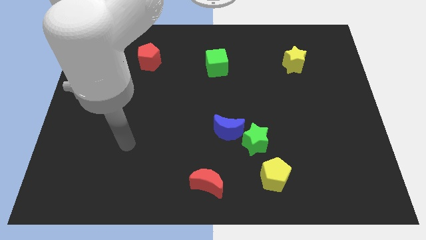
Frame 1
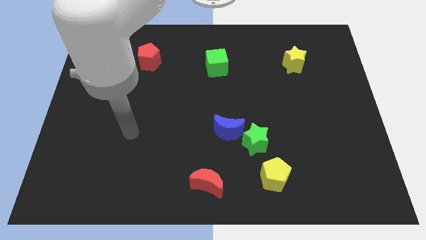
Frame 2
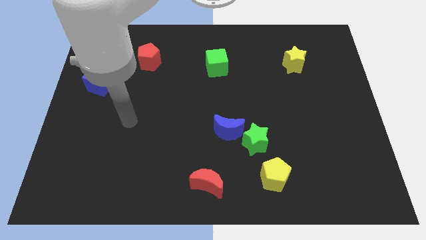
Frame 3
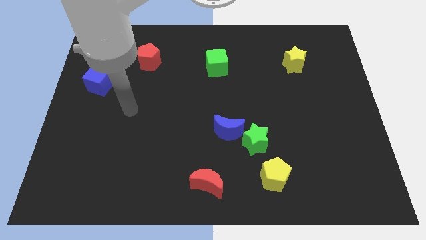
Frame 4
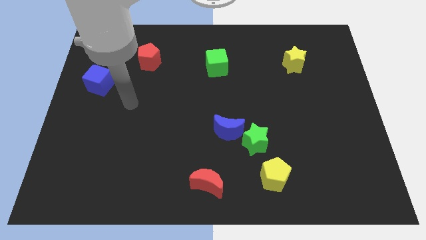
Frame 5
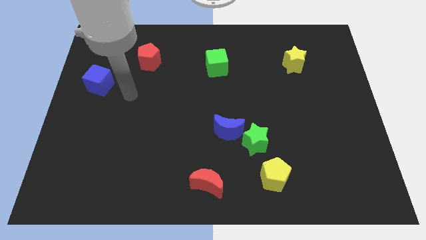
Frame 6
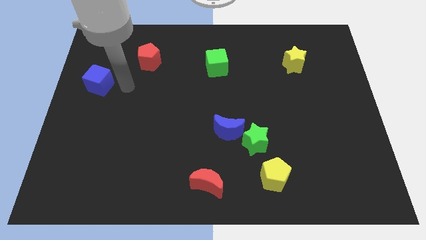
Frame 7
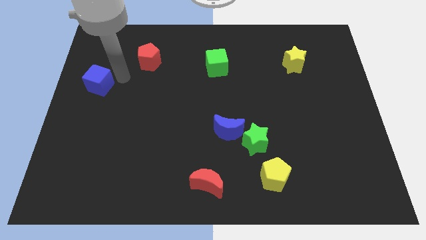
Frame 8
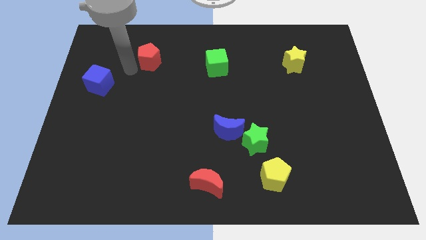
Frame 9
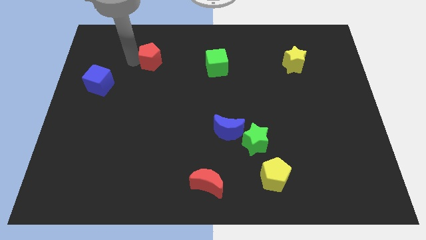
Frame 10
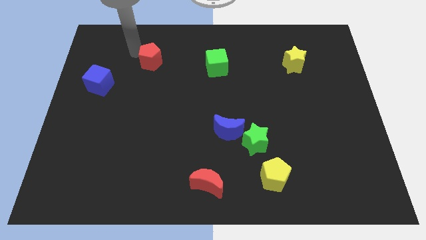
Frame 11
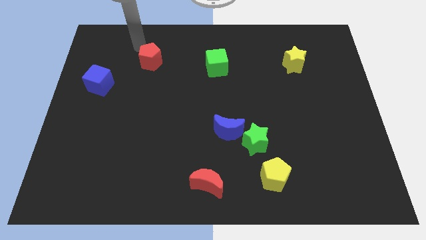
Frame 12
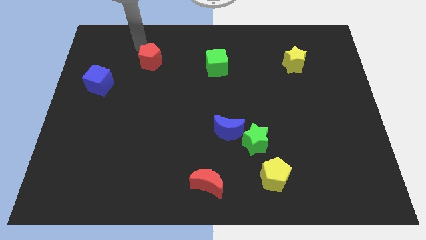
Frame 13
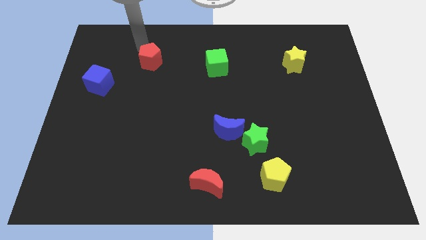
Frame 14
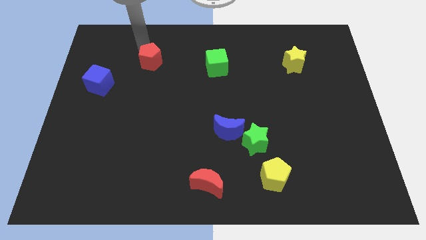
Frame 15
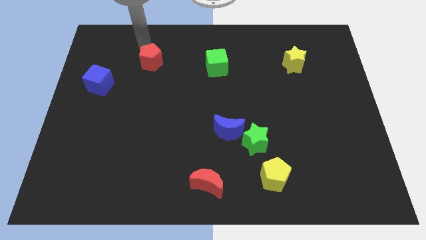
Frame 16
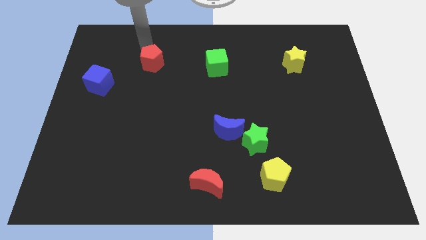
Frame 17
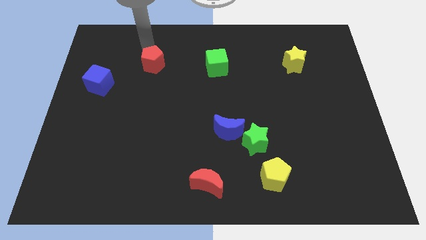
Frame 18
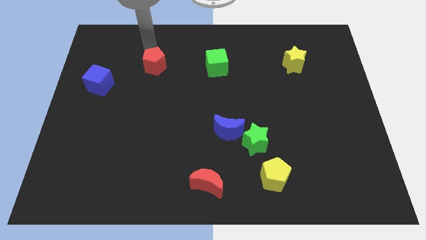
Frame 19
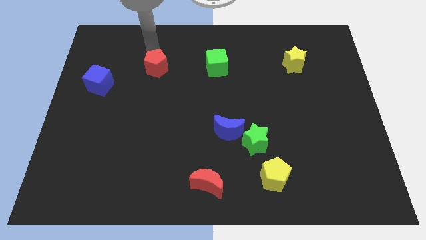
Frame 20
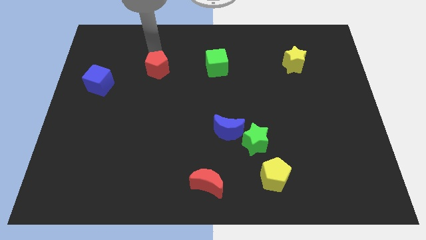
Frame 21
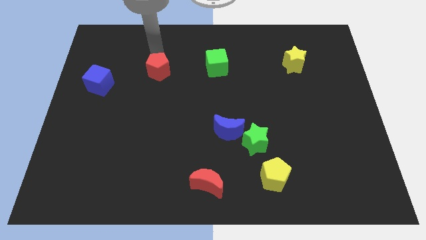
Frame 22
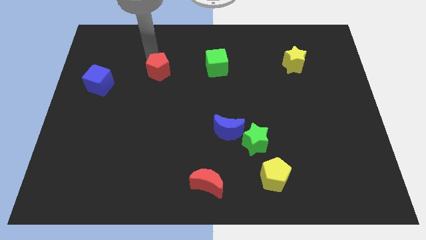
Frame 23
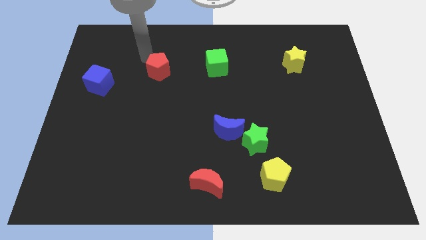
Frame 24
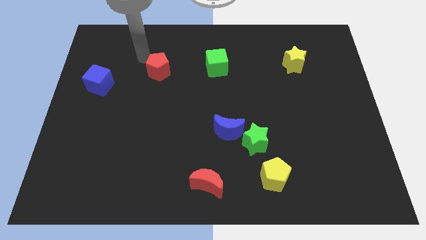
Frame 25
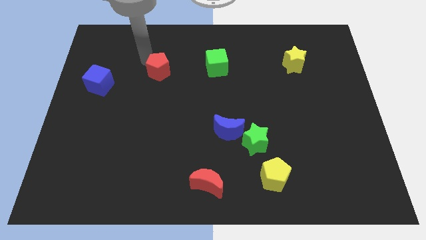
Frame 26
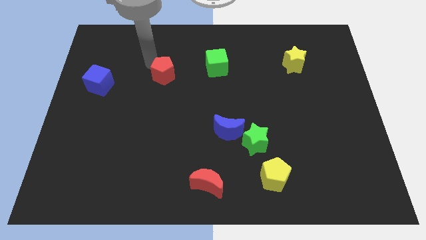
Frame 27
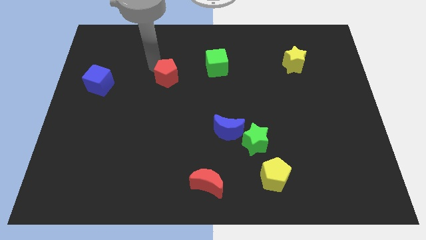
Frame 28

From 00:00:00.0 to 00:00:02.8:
slide the red pentagon downwards and then to the right a little bit

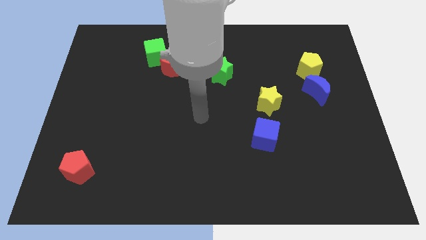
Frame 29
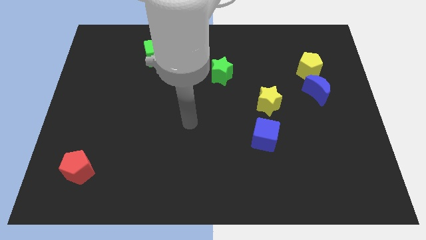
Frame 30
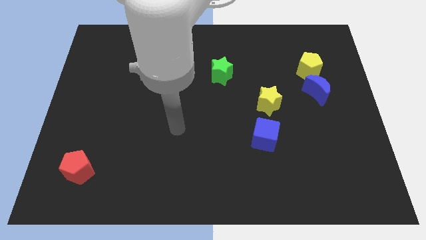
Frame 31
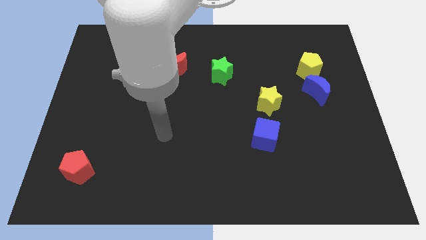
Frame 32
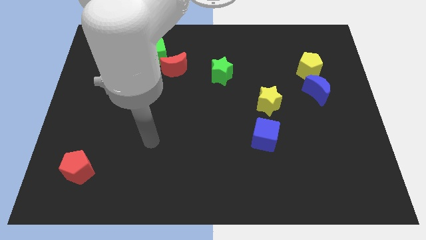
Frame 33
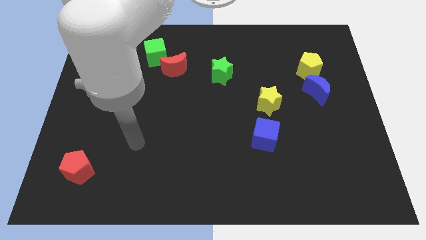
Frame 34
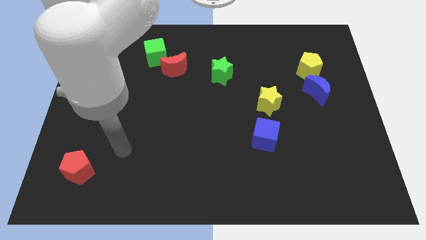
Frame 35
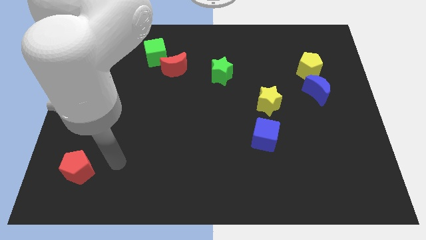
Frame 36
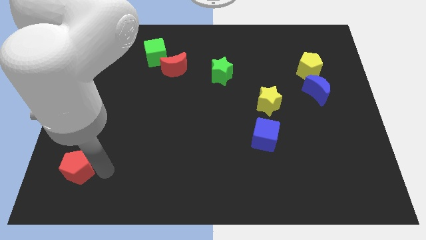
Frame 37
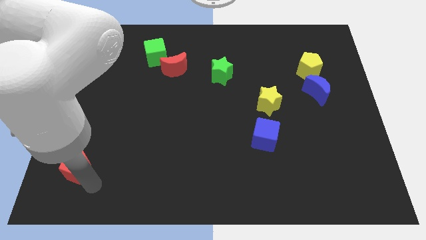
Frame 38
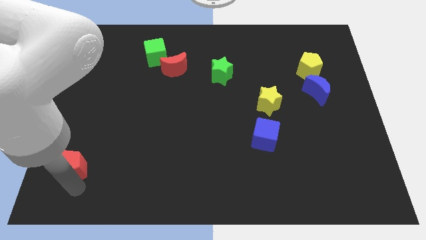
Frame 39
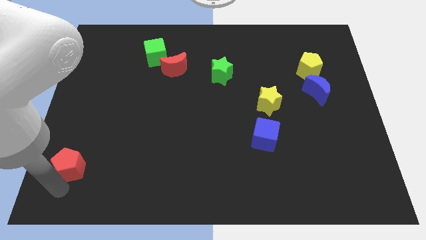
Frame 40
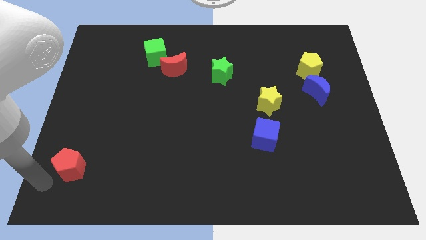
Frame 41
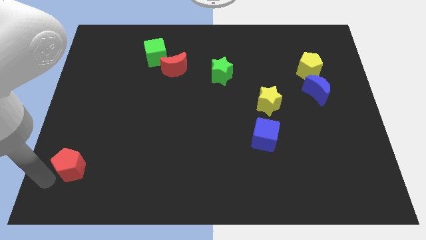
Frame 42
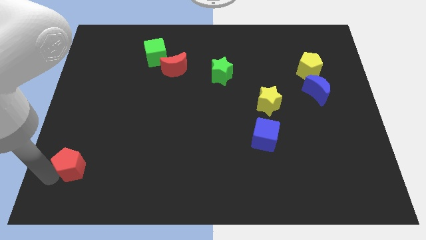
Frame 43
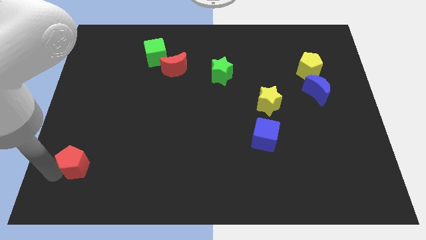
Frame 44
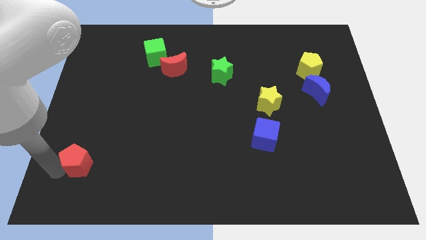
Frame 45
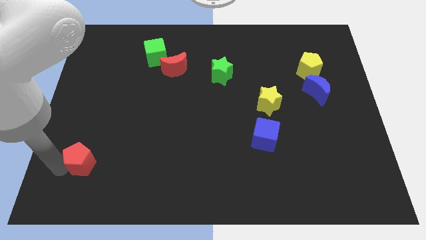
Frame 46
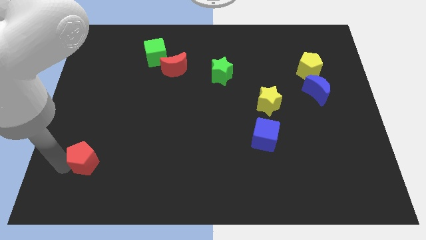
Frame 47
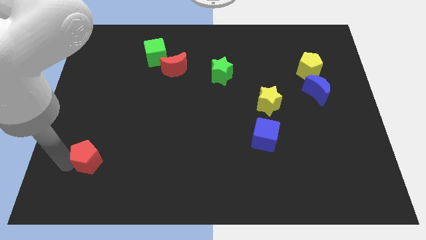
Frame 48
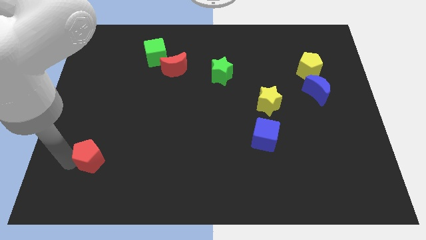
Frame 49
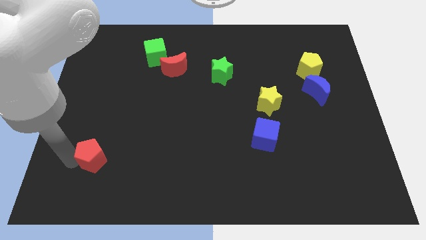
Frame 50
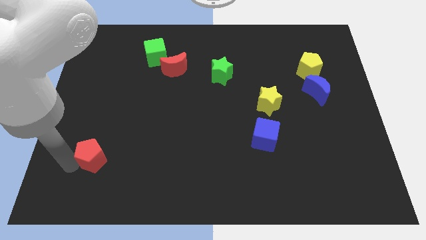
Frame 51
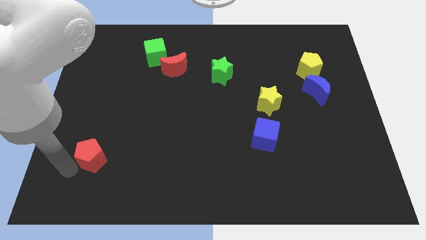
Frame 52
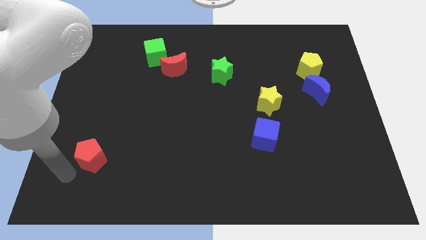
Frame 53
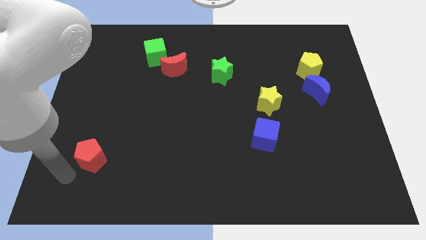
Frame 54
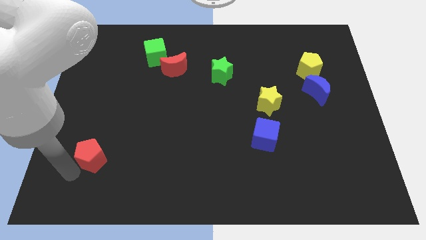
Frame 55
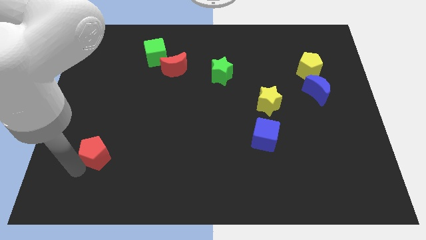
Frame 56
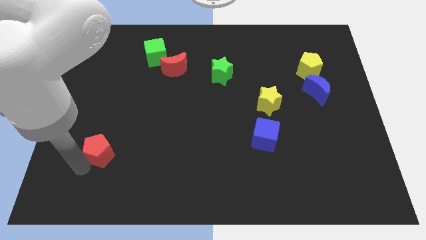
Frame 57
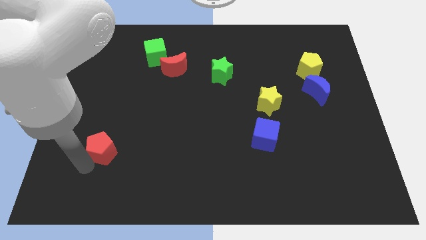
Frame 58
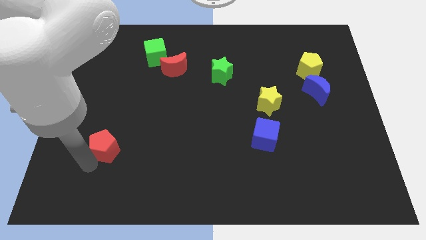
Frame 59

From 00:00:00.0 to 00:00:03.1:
move the red pentagon somewhat diagonally upwards and to the right

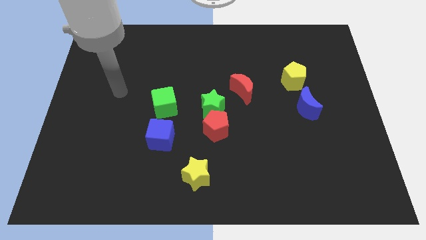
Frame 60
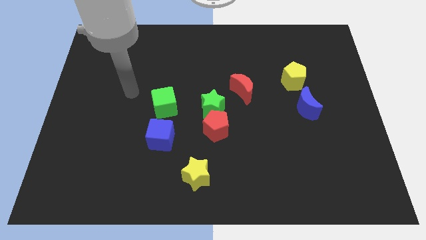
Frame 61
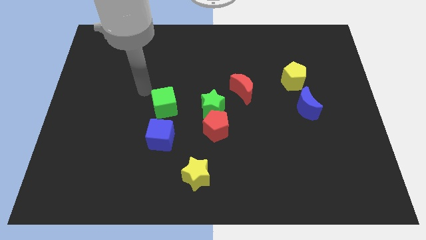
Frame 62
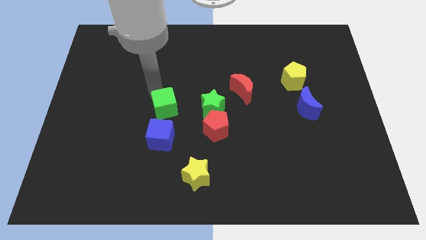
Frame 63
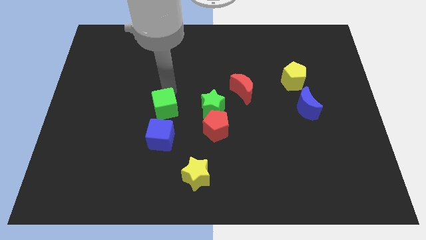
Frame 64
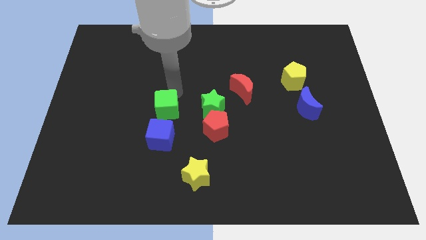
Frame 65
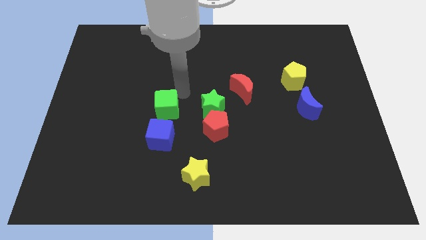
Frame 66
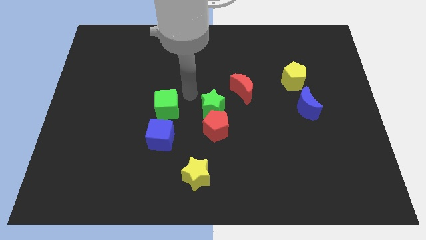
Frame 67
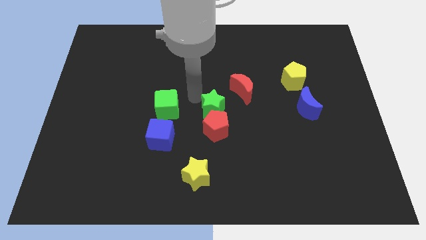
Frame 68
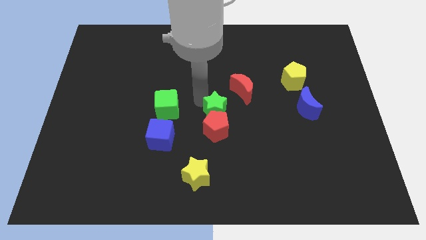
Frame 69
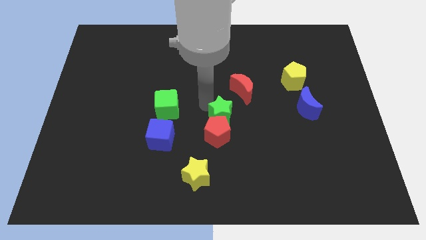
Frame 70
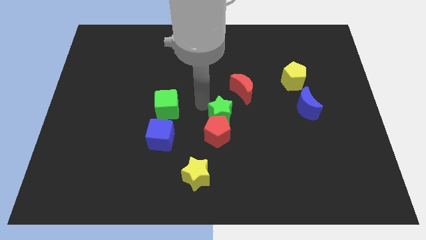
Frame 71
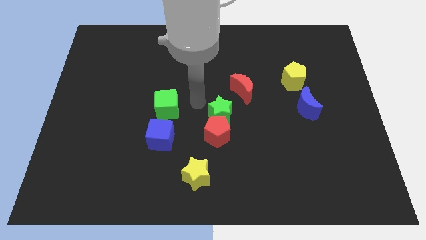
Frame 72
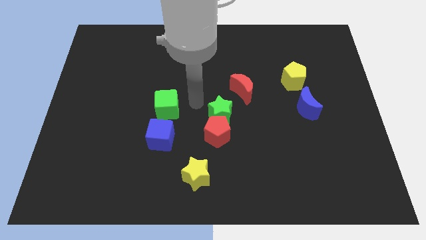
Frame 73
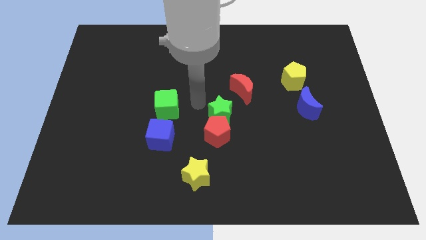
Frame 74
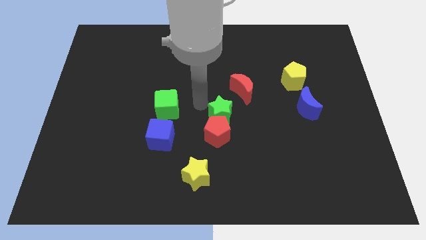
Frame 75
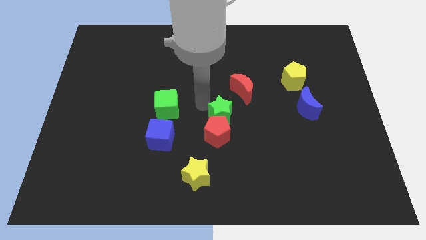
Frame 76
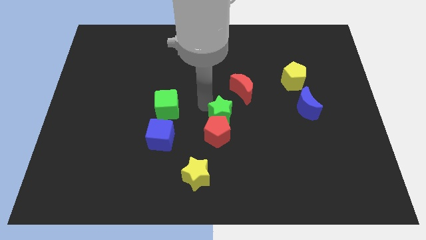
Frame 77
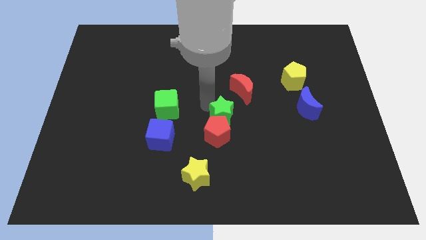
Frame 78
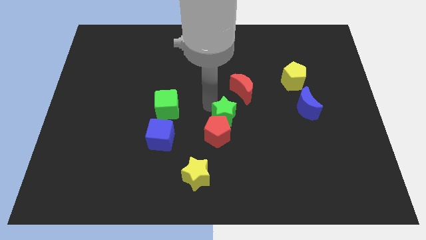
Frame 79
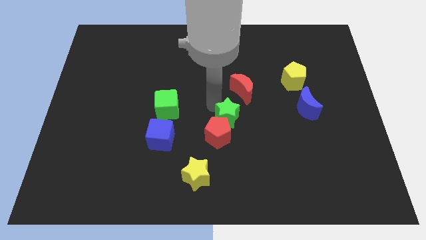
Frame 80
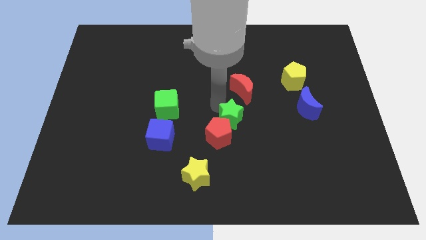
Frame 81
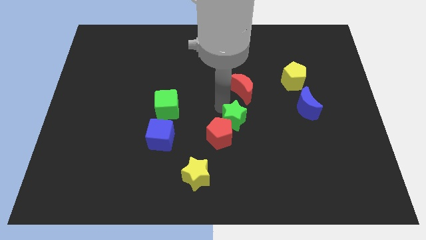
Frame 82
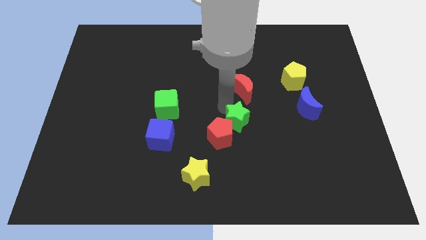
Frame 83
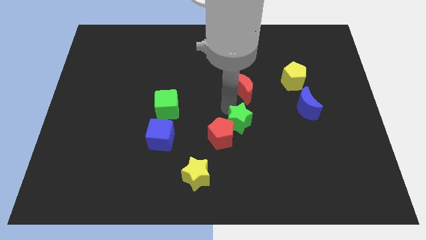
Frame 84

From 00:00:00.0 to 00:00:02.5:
move the green star downwards and right somewhat
